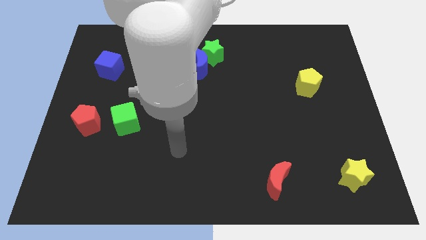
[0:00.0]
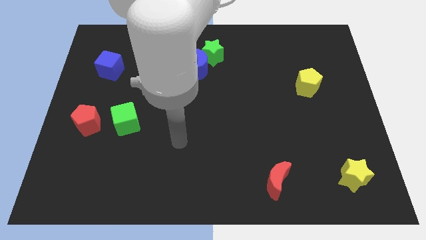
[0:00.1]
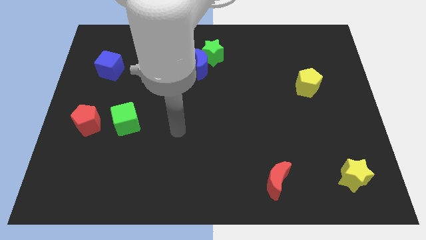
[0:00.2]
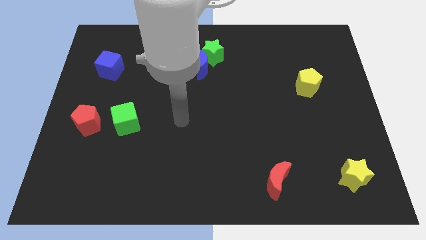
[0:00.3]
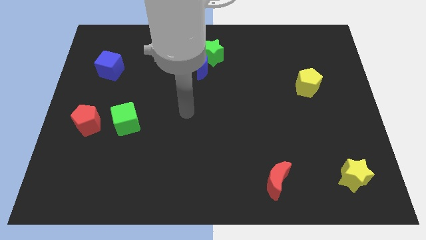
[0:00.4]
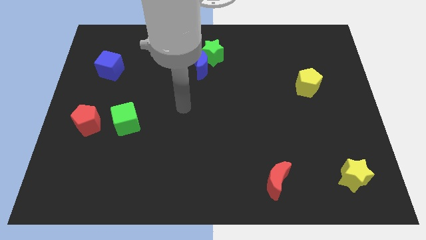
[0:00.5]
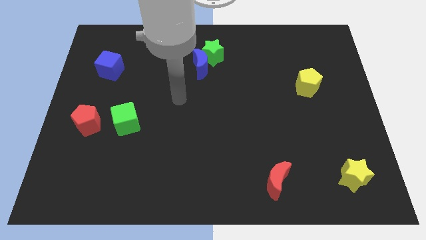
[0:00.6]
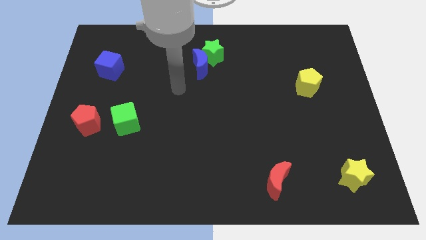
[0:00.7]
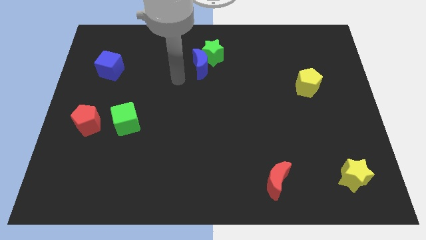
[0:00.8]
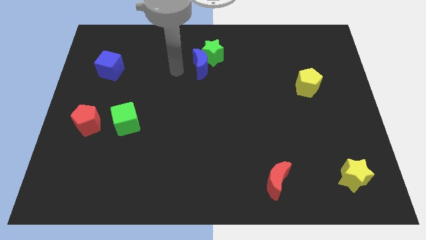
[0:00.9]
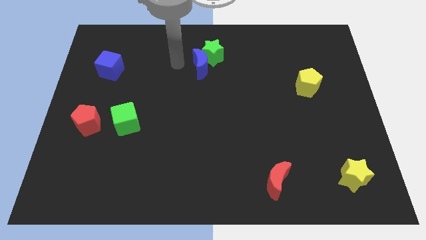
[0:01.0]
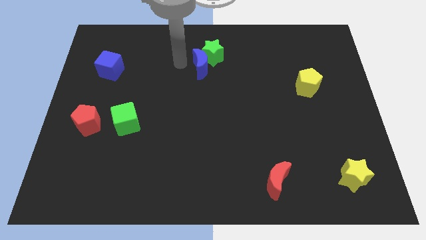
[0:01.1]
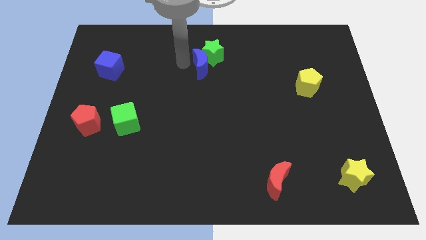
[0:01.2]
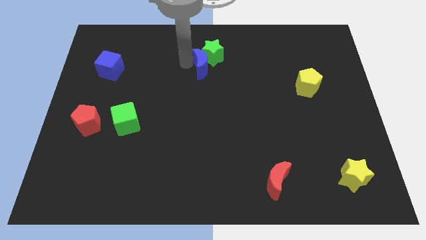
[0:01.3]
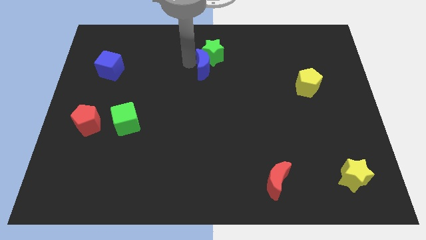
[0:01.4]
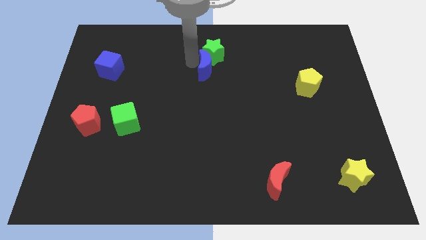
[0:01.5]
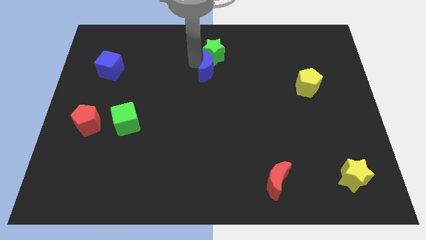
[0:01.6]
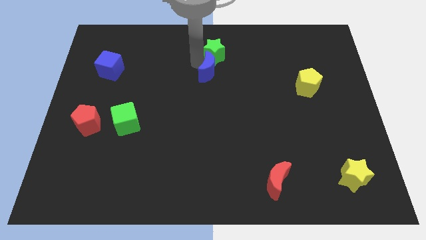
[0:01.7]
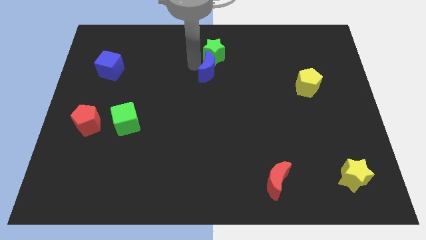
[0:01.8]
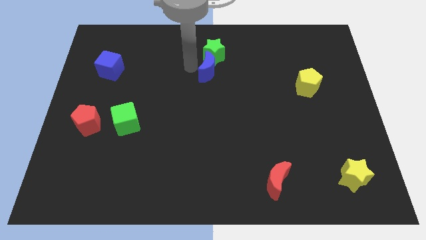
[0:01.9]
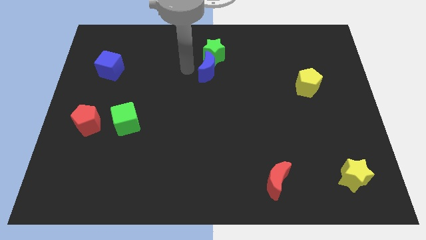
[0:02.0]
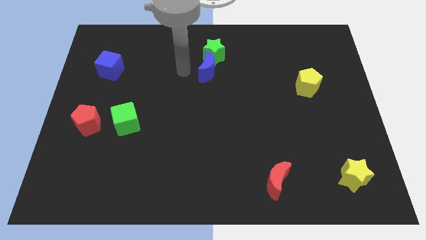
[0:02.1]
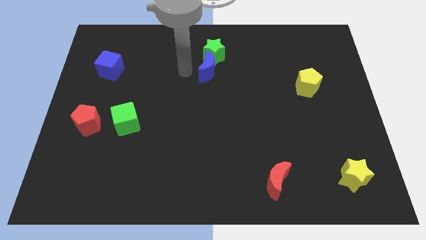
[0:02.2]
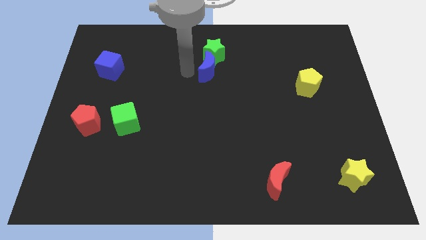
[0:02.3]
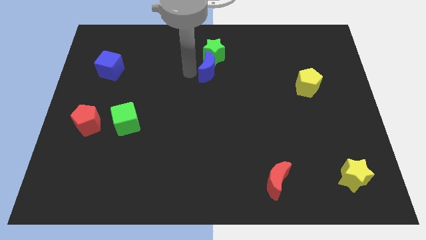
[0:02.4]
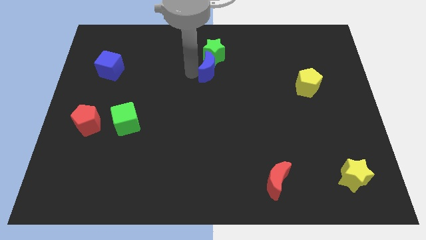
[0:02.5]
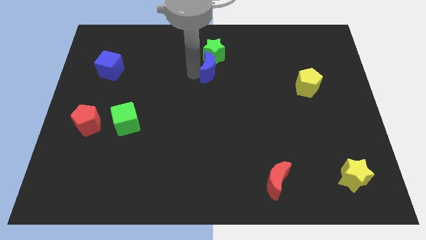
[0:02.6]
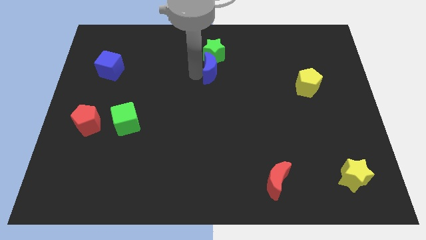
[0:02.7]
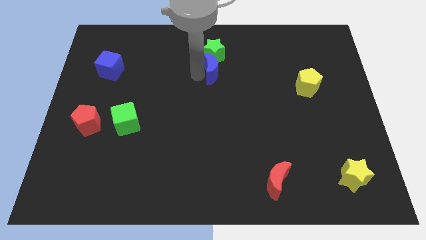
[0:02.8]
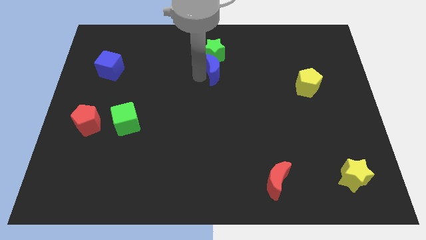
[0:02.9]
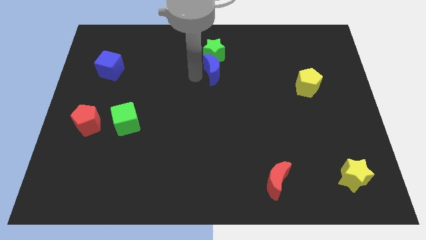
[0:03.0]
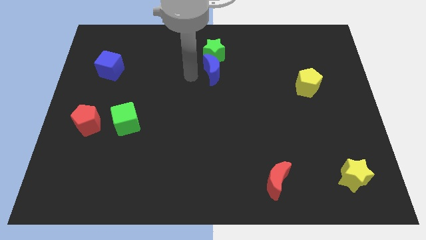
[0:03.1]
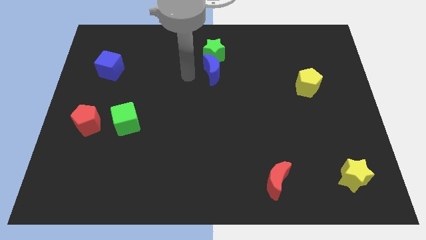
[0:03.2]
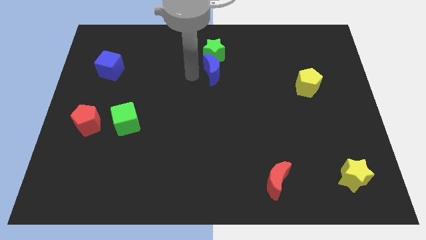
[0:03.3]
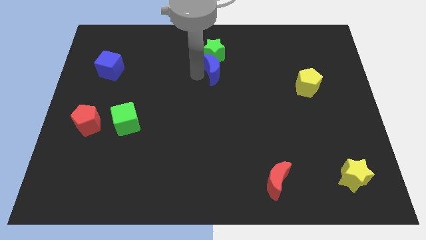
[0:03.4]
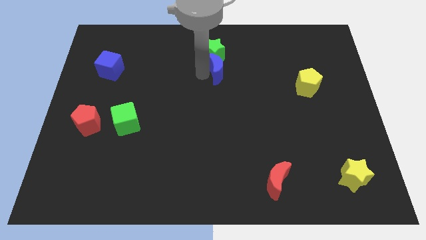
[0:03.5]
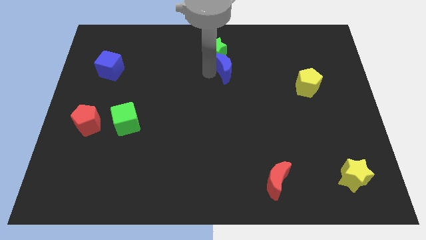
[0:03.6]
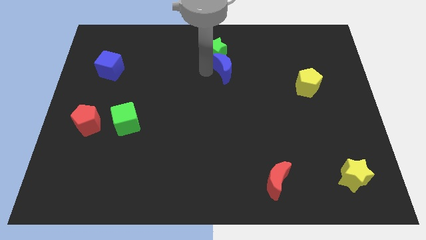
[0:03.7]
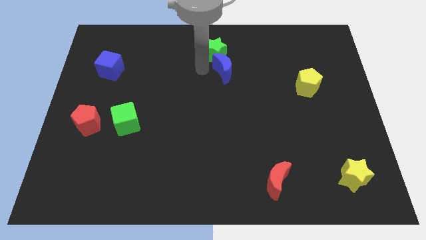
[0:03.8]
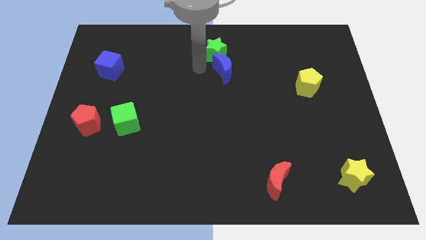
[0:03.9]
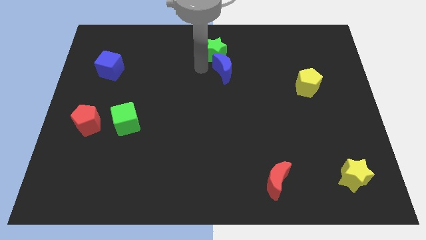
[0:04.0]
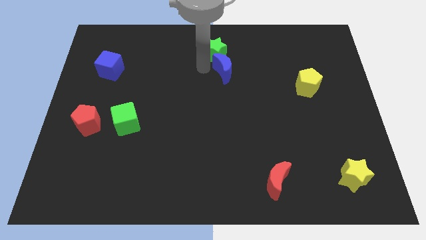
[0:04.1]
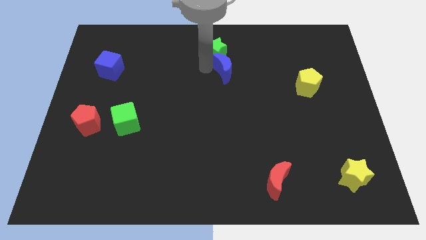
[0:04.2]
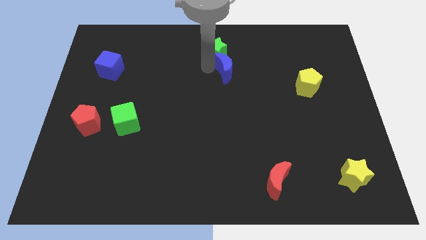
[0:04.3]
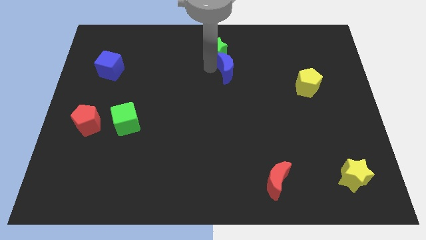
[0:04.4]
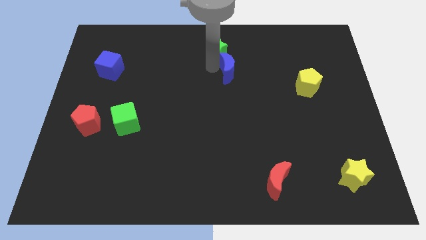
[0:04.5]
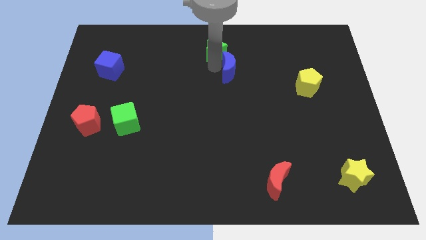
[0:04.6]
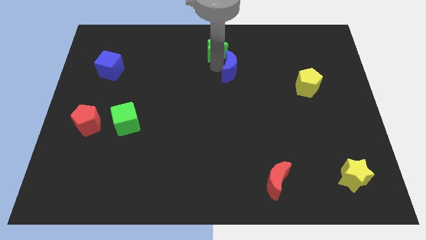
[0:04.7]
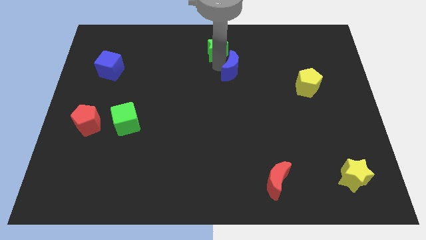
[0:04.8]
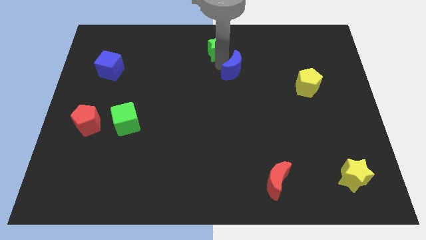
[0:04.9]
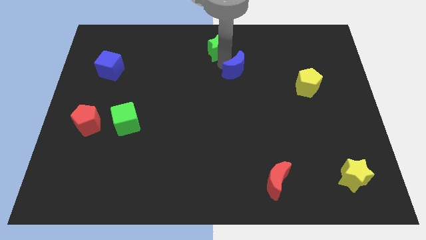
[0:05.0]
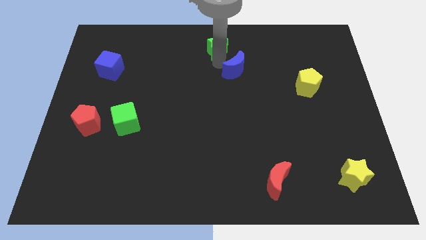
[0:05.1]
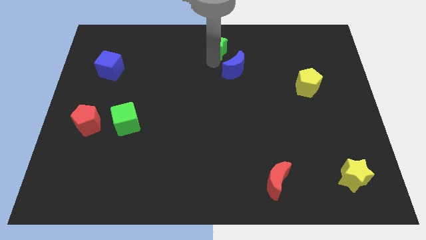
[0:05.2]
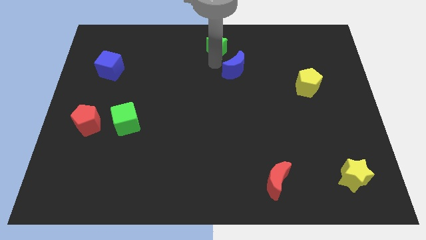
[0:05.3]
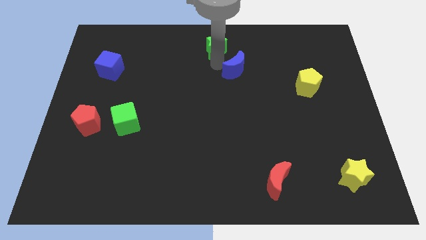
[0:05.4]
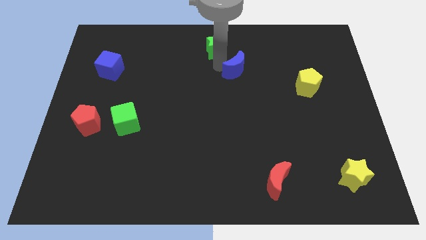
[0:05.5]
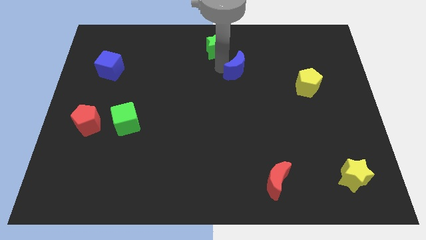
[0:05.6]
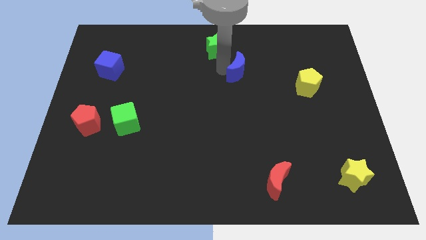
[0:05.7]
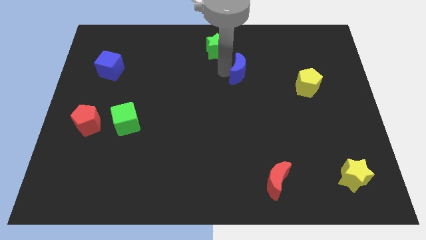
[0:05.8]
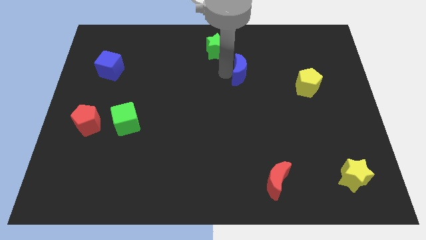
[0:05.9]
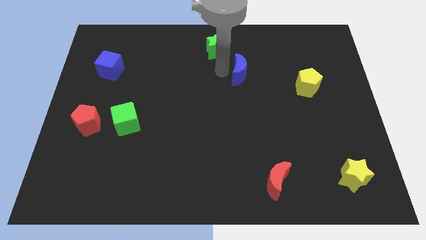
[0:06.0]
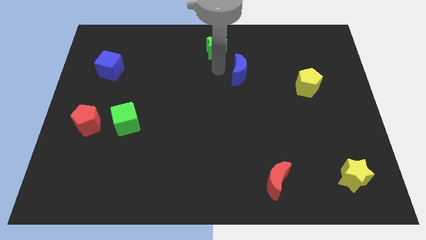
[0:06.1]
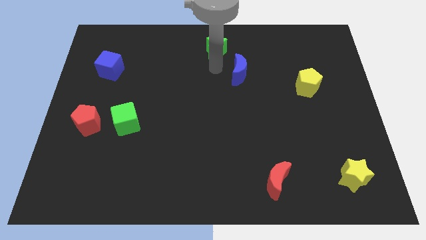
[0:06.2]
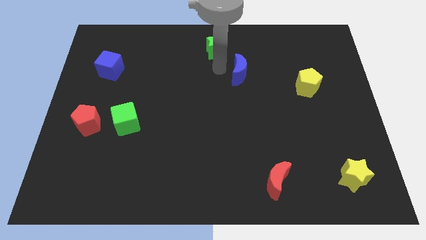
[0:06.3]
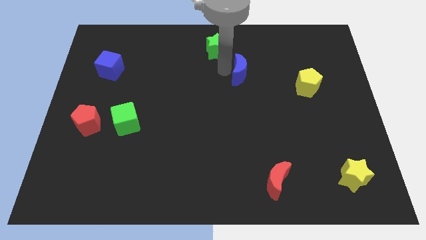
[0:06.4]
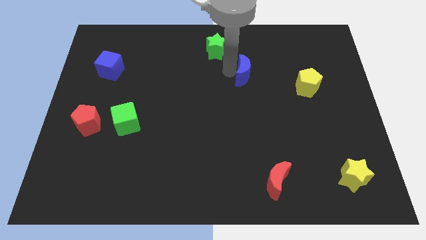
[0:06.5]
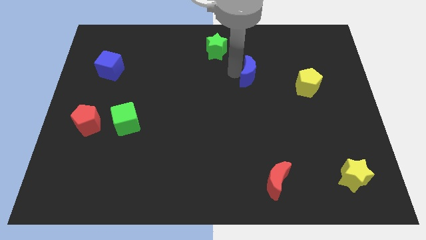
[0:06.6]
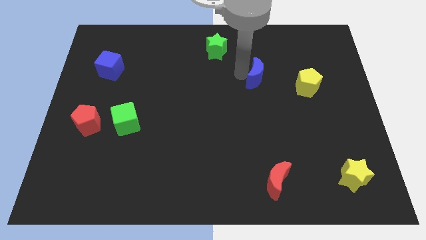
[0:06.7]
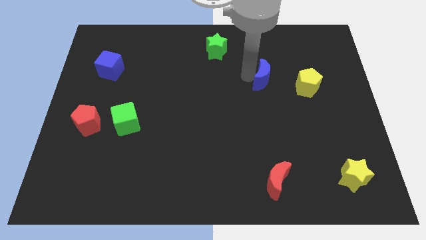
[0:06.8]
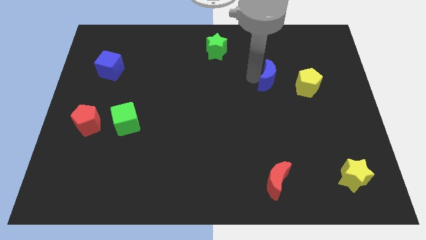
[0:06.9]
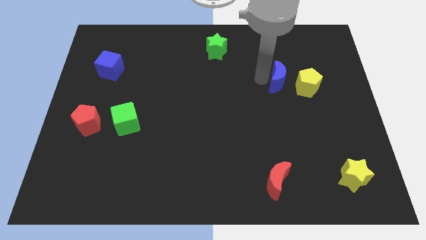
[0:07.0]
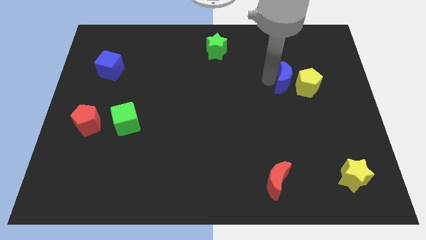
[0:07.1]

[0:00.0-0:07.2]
push the blue moon to the yellow pentagon

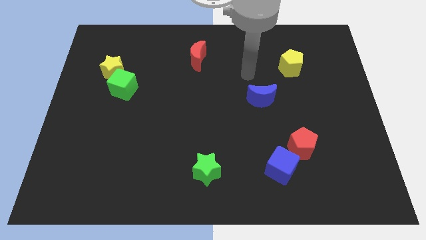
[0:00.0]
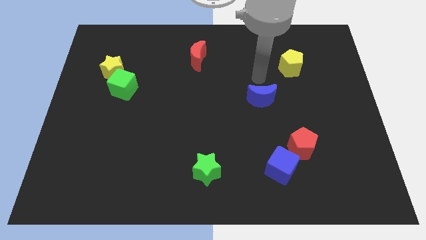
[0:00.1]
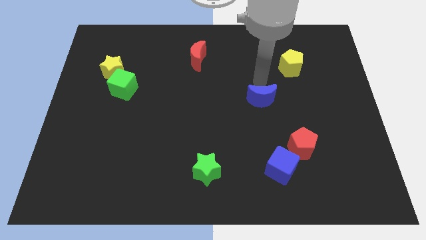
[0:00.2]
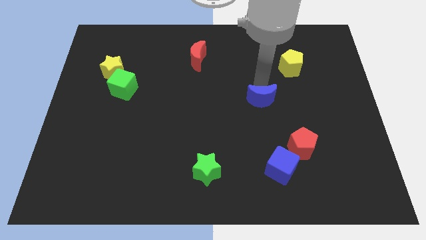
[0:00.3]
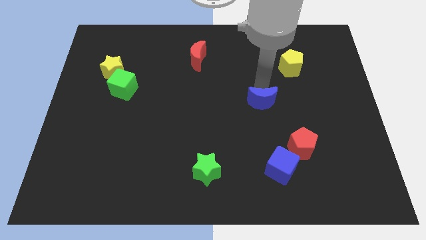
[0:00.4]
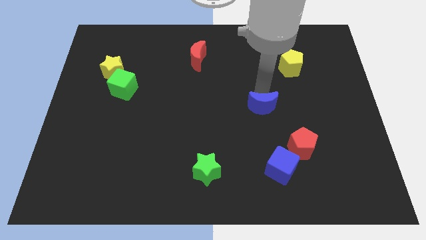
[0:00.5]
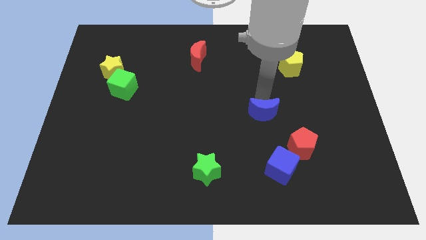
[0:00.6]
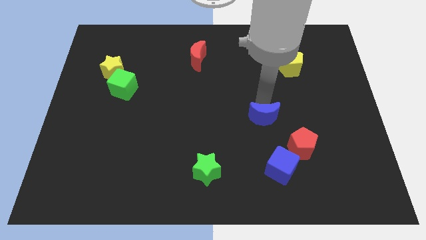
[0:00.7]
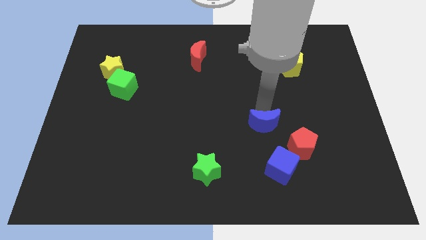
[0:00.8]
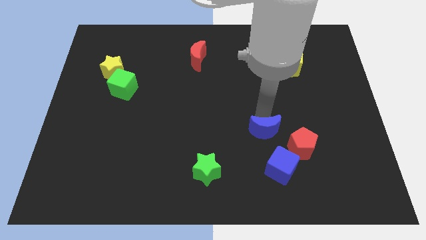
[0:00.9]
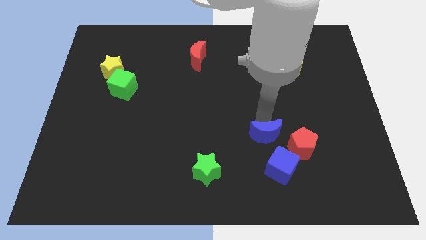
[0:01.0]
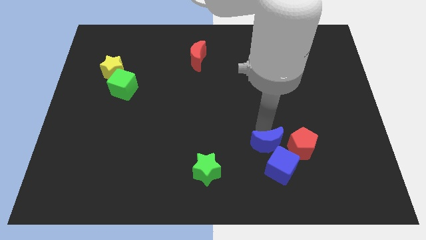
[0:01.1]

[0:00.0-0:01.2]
push the blue moon next to the blue cube
